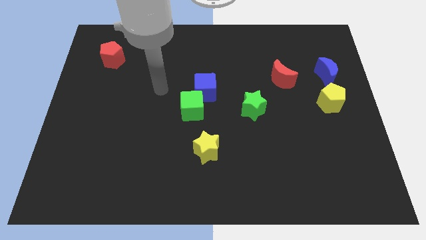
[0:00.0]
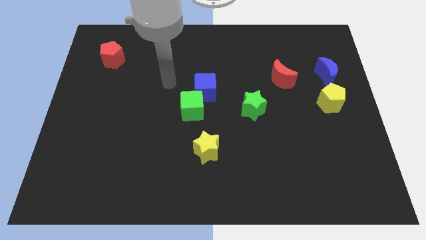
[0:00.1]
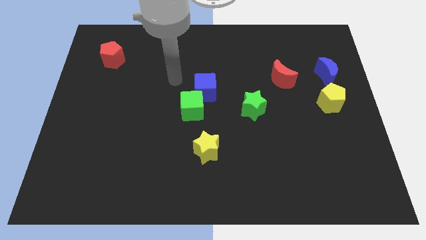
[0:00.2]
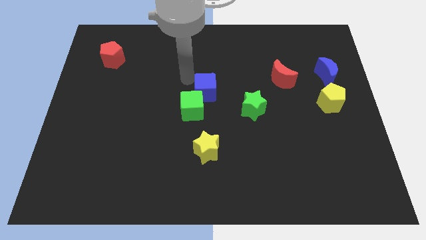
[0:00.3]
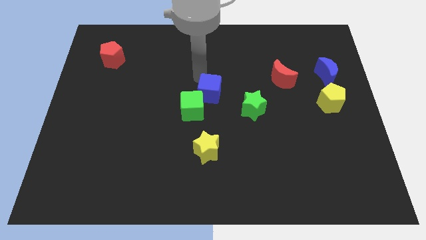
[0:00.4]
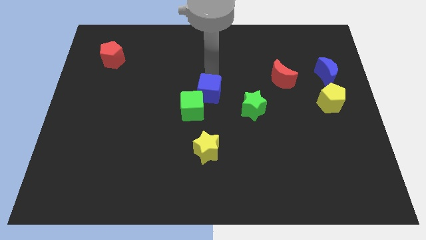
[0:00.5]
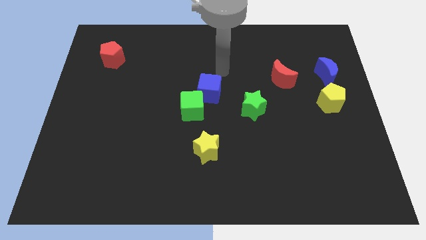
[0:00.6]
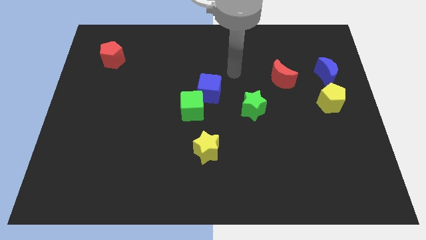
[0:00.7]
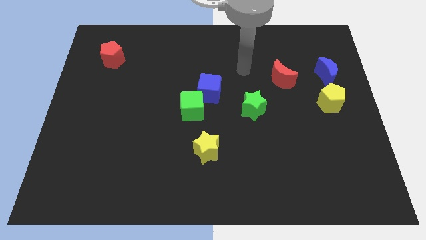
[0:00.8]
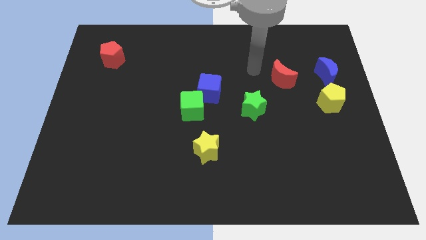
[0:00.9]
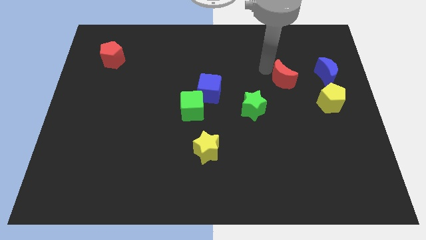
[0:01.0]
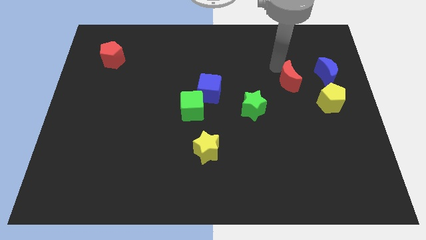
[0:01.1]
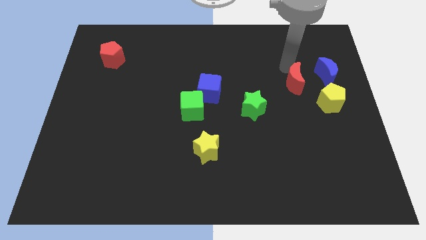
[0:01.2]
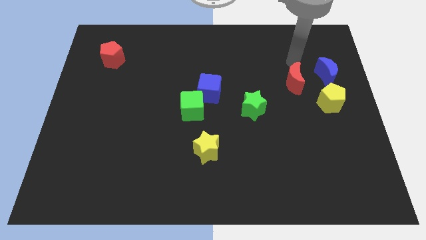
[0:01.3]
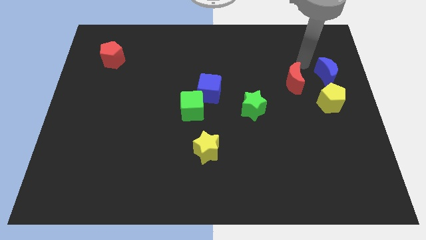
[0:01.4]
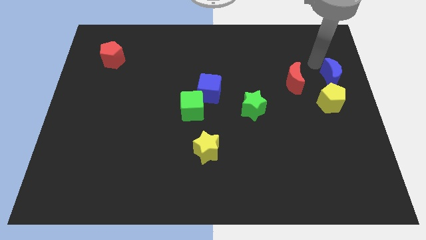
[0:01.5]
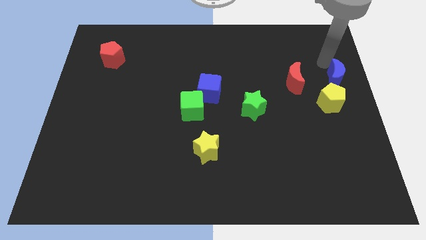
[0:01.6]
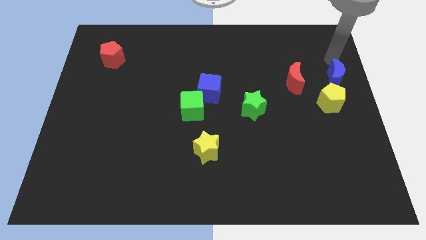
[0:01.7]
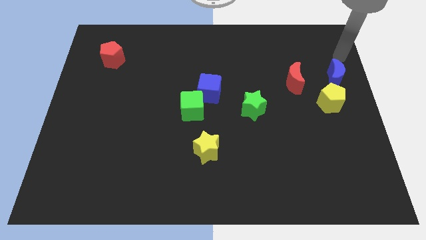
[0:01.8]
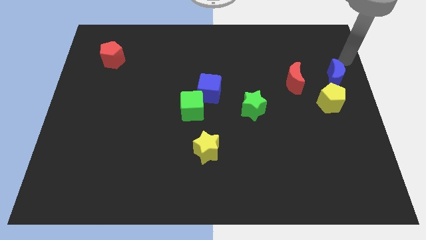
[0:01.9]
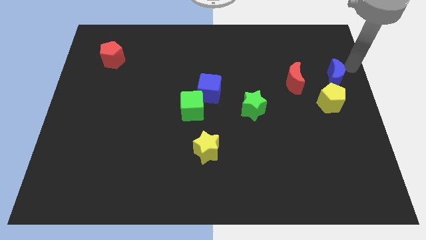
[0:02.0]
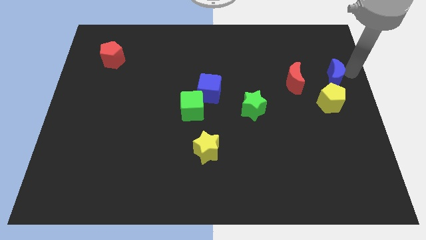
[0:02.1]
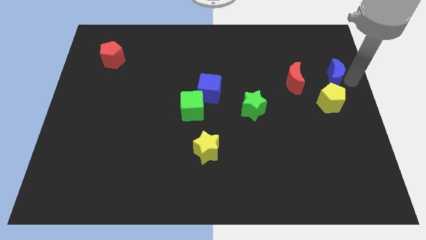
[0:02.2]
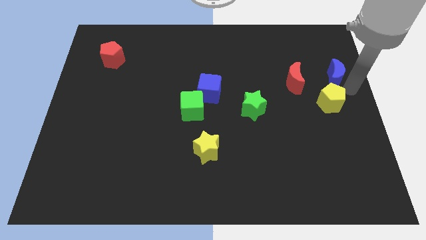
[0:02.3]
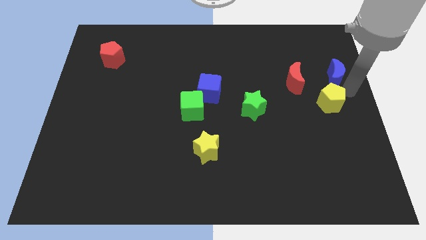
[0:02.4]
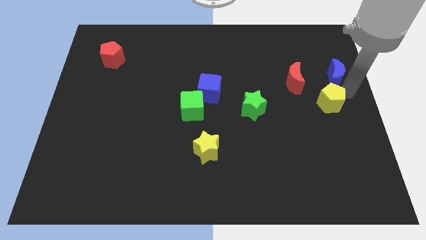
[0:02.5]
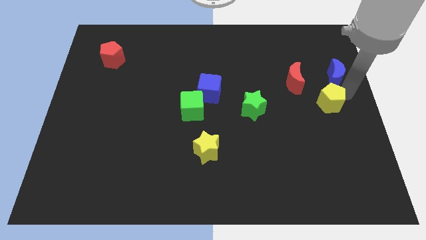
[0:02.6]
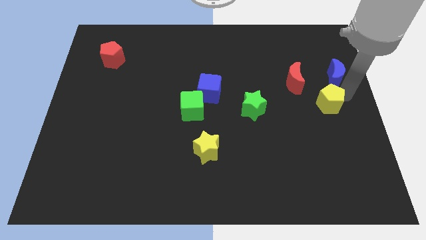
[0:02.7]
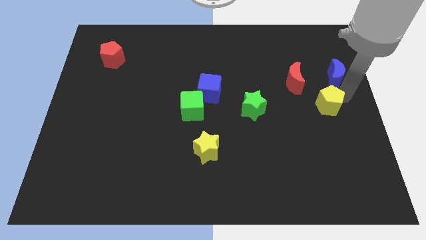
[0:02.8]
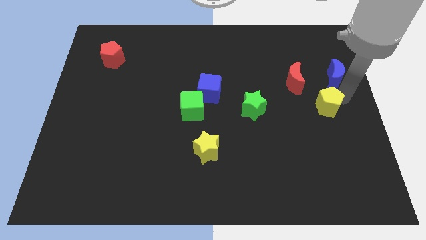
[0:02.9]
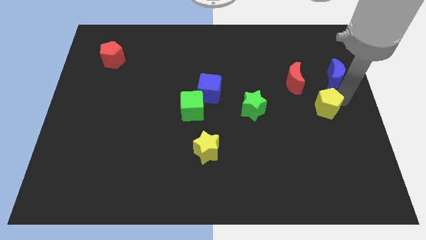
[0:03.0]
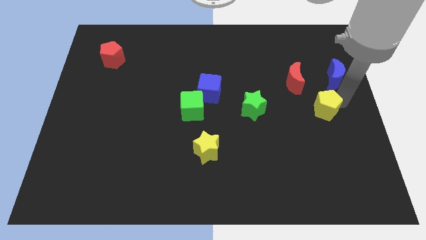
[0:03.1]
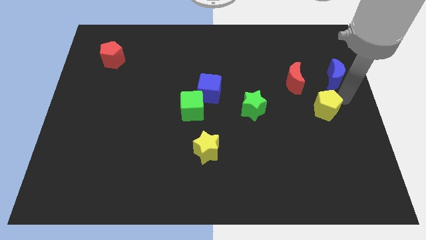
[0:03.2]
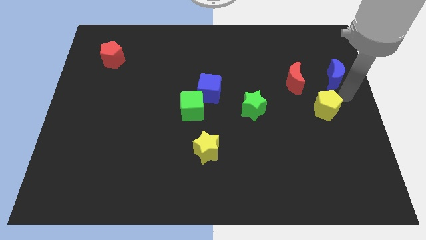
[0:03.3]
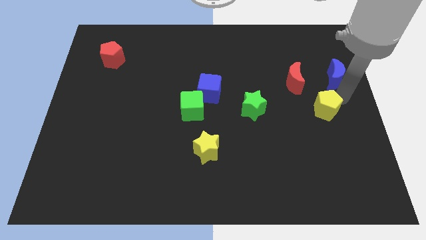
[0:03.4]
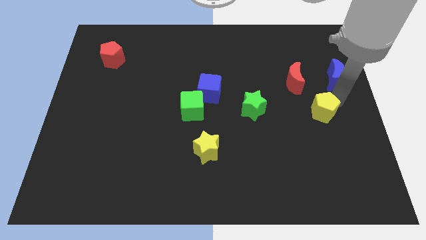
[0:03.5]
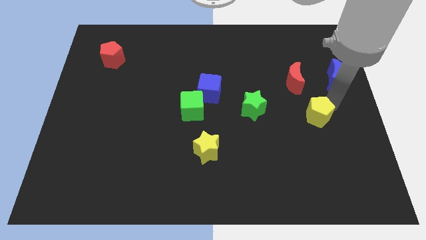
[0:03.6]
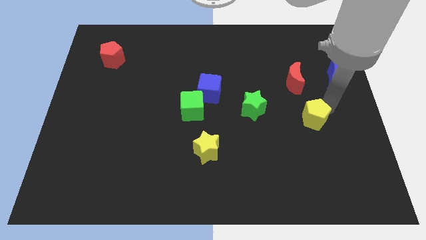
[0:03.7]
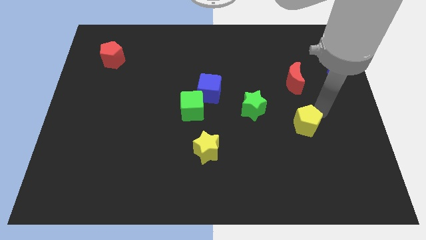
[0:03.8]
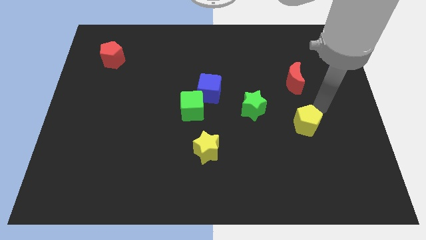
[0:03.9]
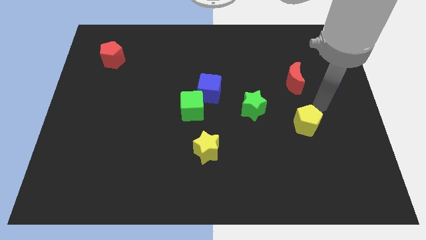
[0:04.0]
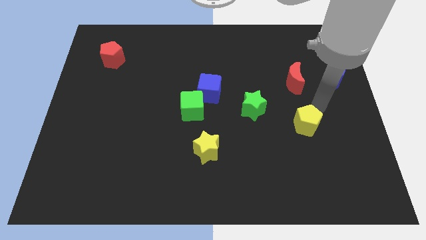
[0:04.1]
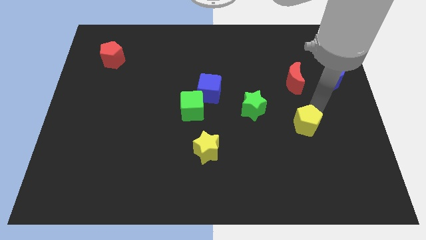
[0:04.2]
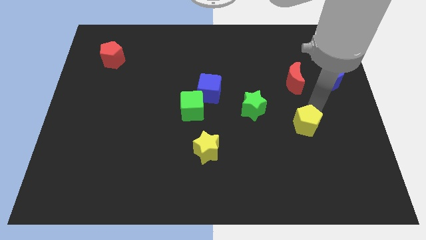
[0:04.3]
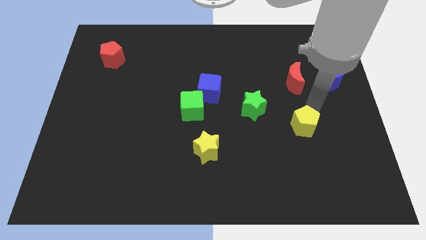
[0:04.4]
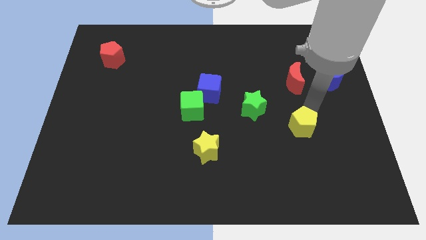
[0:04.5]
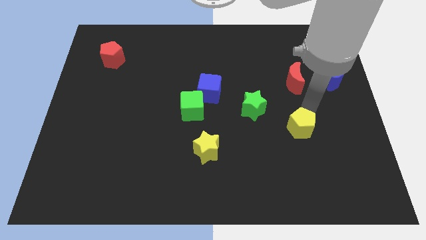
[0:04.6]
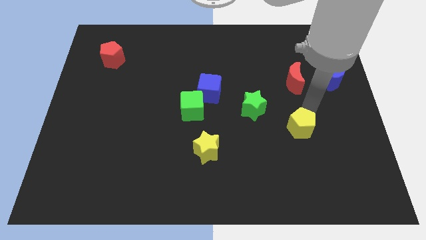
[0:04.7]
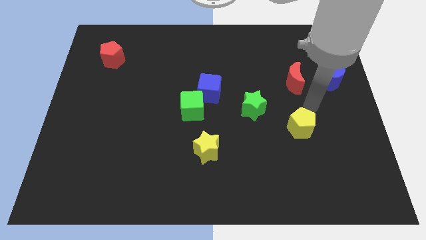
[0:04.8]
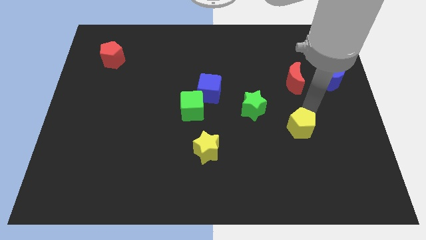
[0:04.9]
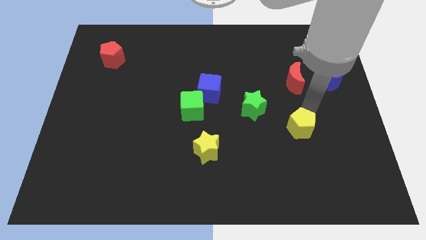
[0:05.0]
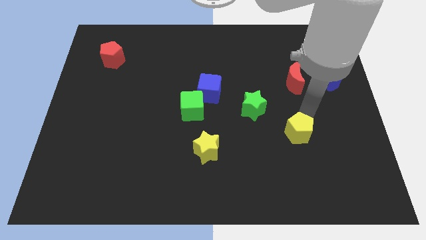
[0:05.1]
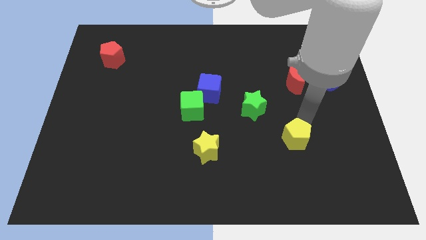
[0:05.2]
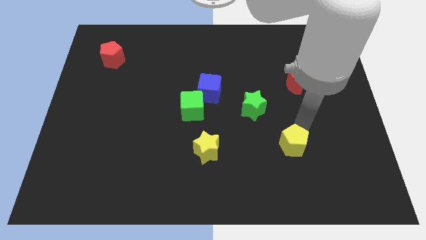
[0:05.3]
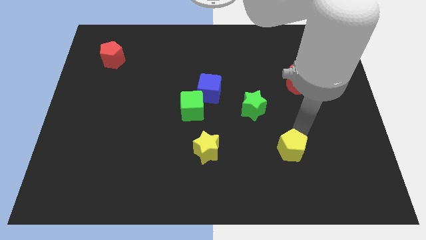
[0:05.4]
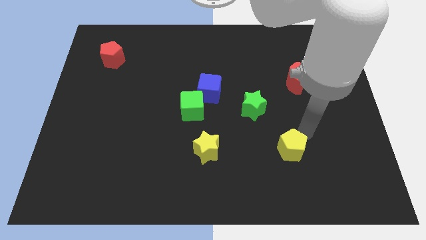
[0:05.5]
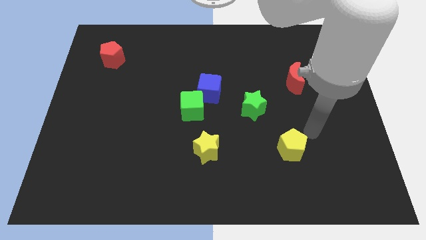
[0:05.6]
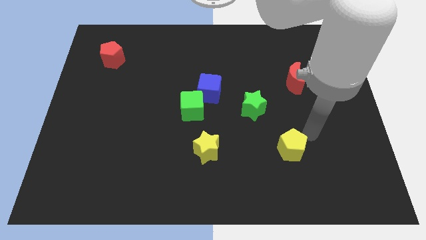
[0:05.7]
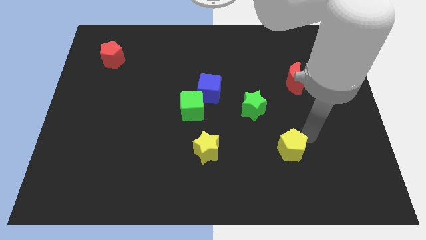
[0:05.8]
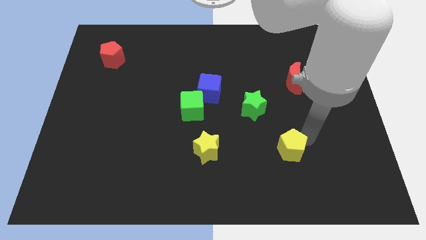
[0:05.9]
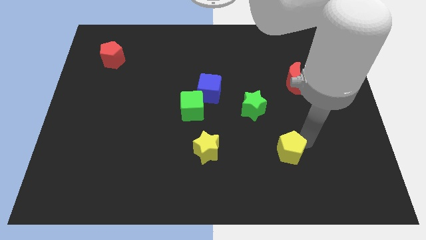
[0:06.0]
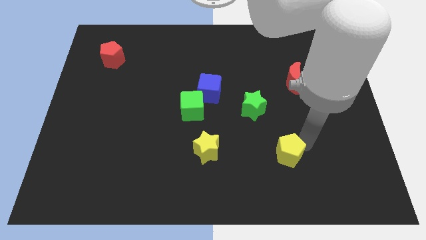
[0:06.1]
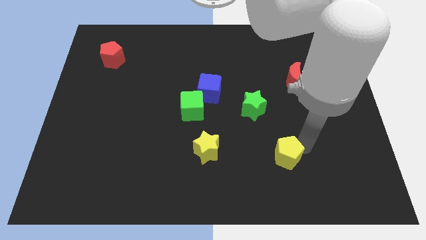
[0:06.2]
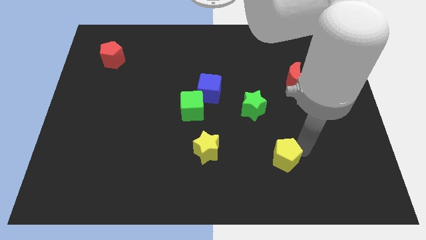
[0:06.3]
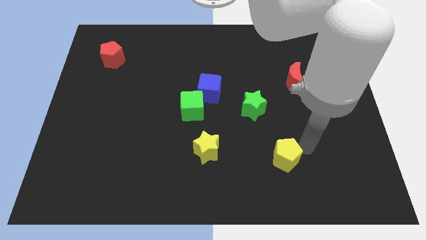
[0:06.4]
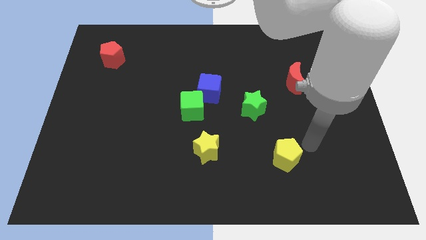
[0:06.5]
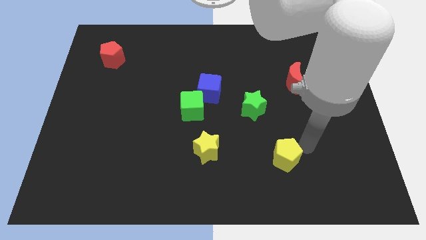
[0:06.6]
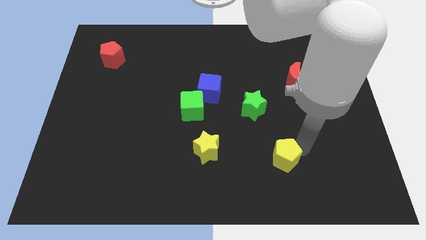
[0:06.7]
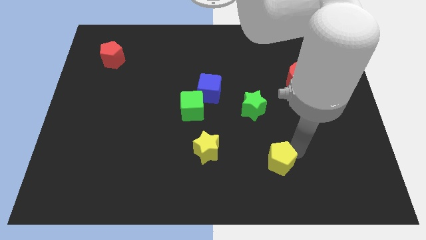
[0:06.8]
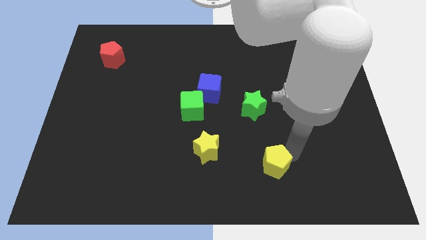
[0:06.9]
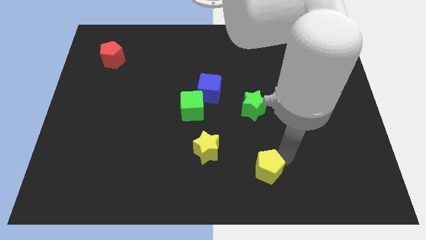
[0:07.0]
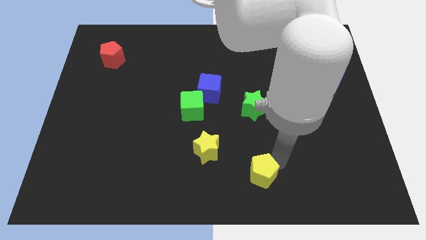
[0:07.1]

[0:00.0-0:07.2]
slide the yellow pentagon to the bottom
